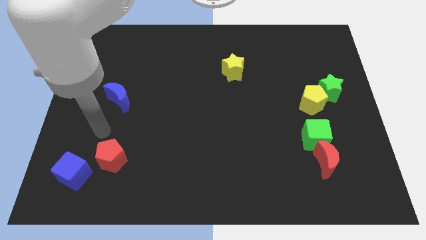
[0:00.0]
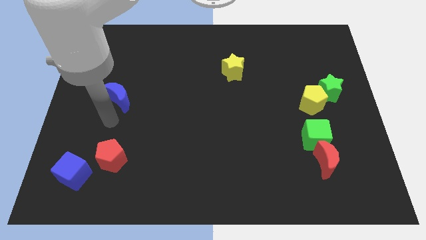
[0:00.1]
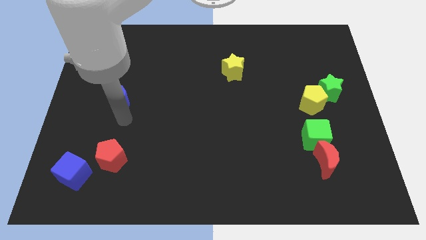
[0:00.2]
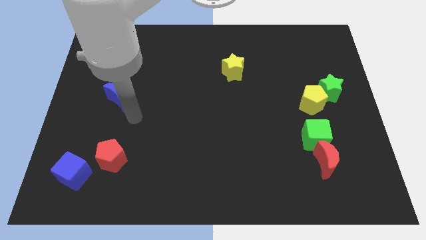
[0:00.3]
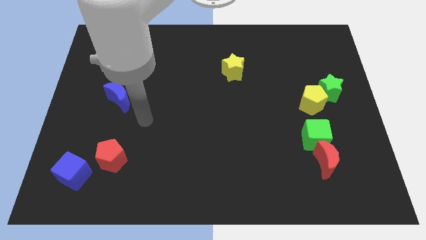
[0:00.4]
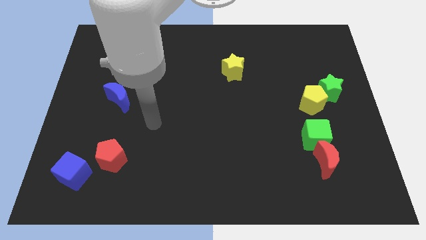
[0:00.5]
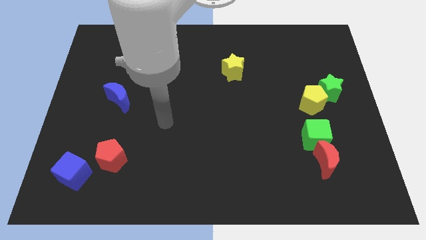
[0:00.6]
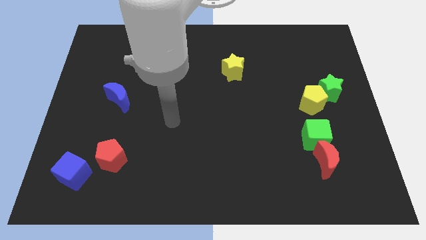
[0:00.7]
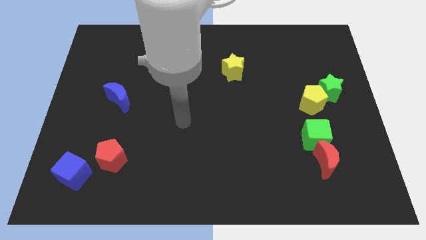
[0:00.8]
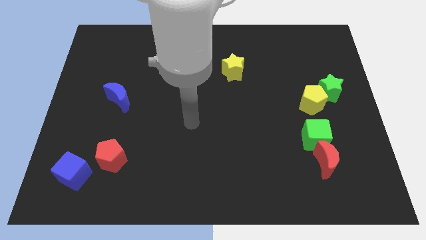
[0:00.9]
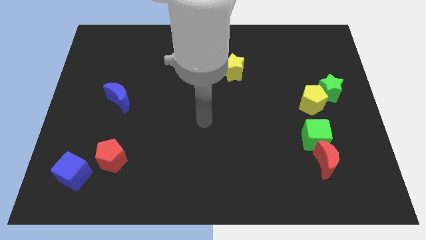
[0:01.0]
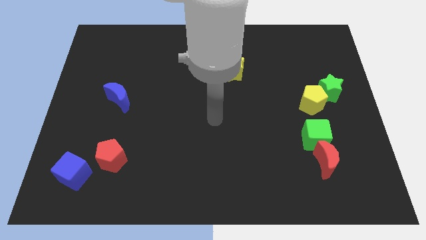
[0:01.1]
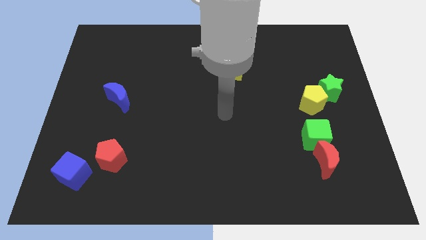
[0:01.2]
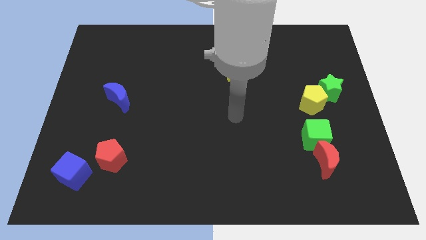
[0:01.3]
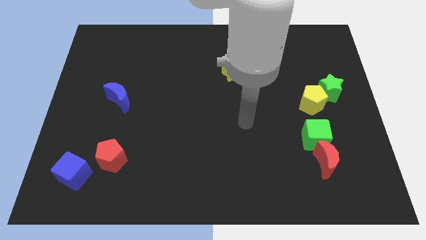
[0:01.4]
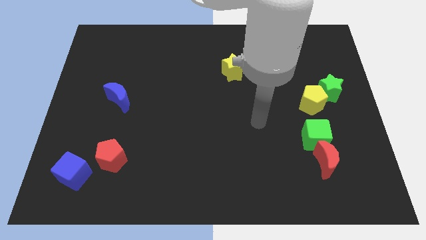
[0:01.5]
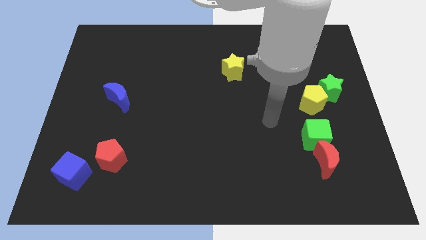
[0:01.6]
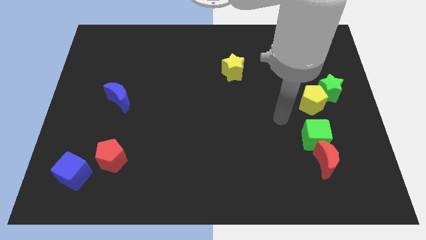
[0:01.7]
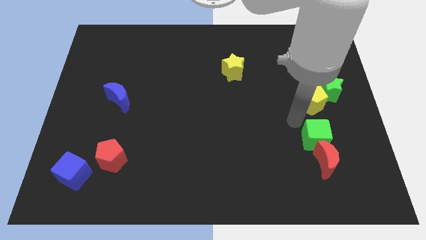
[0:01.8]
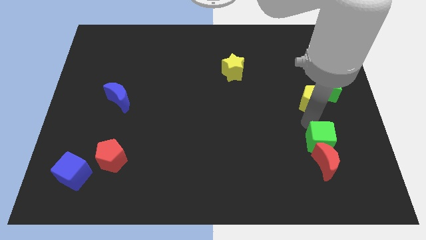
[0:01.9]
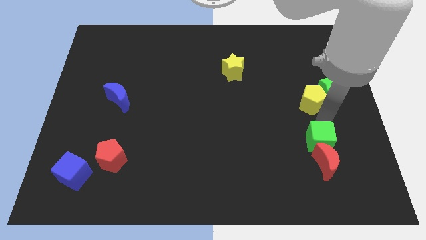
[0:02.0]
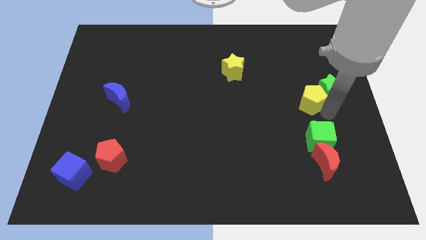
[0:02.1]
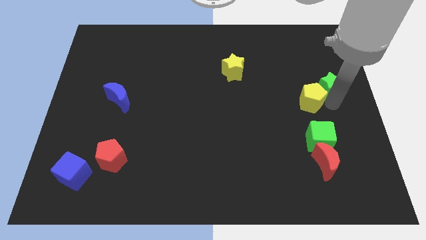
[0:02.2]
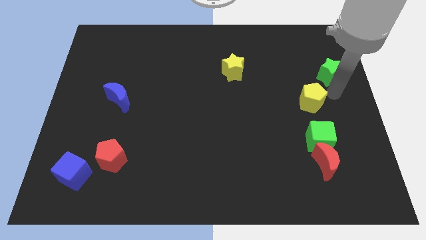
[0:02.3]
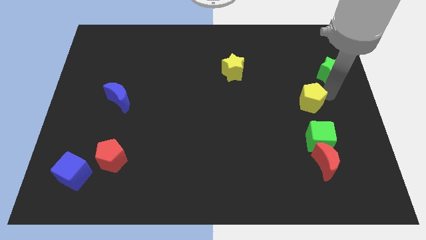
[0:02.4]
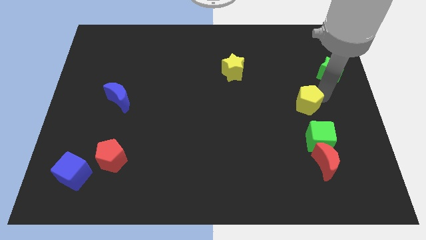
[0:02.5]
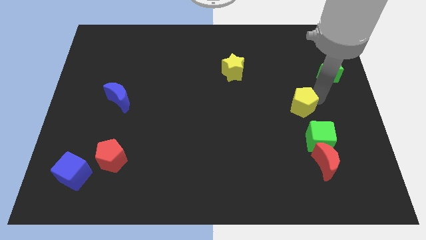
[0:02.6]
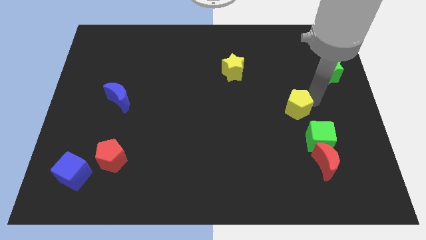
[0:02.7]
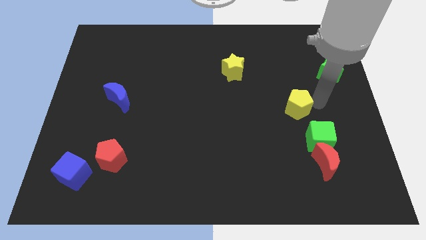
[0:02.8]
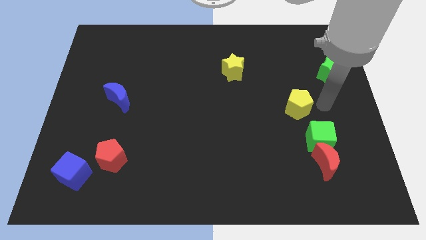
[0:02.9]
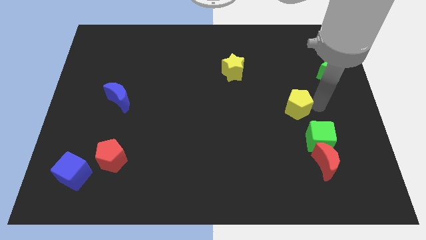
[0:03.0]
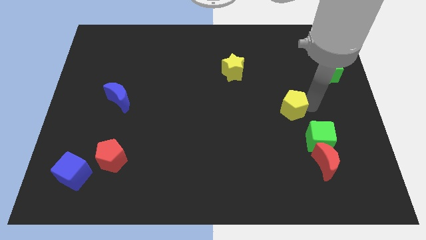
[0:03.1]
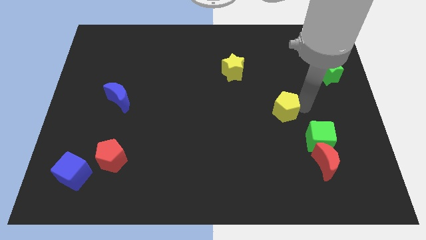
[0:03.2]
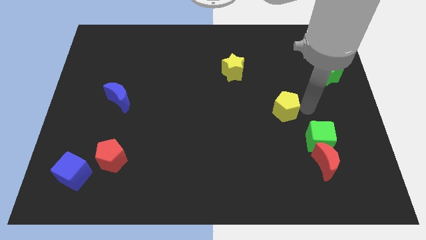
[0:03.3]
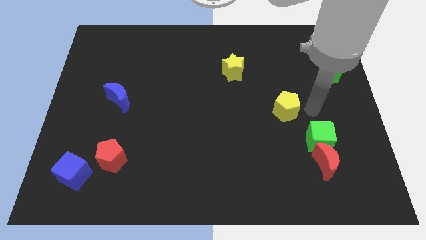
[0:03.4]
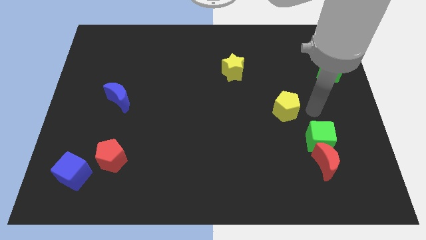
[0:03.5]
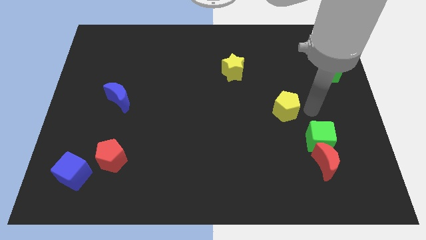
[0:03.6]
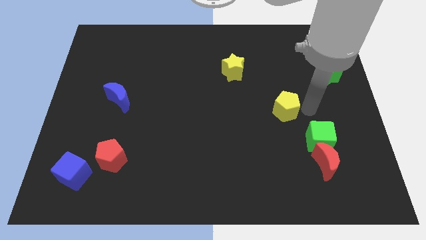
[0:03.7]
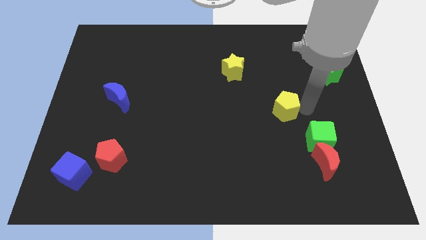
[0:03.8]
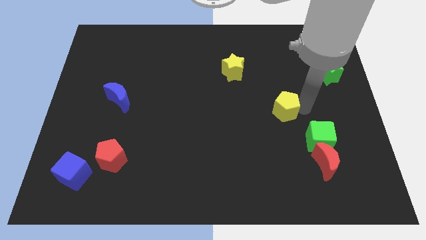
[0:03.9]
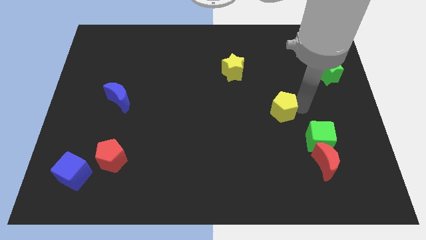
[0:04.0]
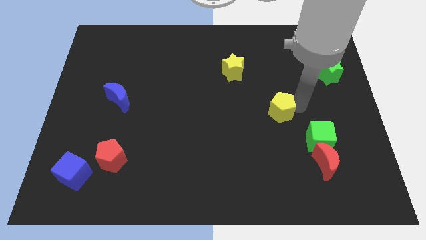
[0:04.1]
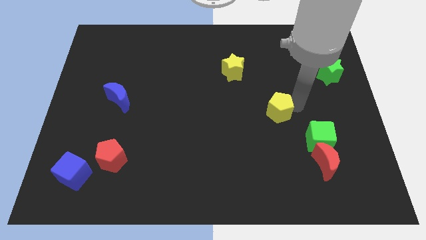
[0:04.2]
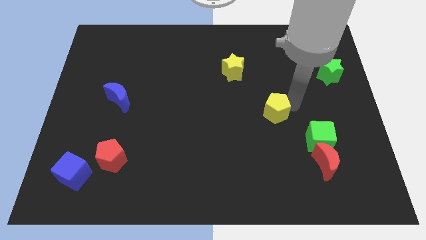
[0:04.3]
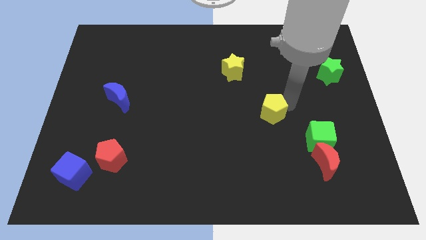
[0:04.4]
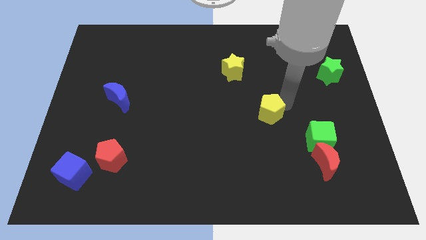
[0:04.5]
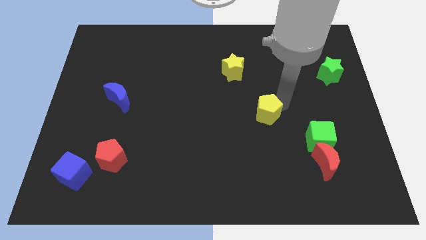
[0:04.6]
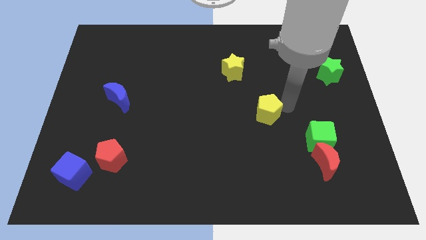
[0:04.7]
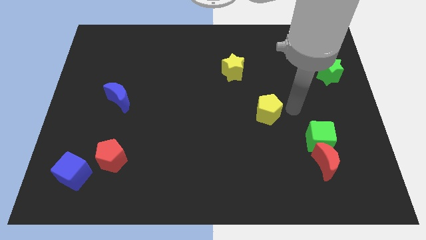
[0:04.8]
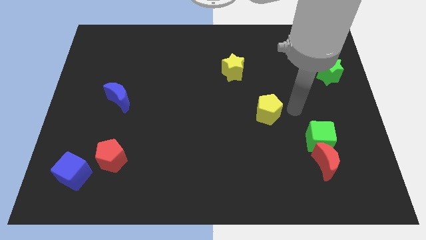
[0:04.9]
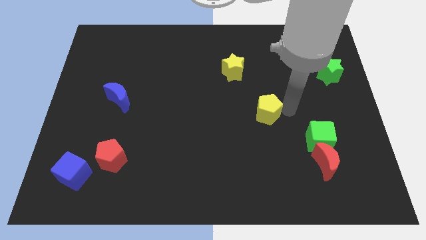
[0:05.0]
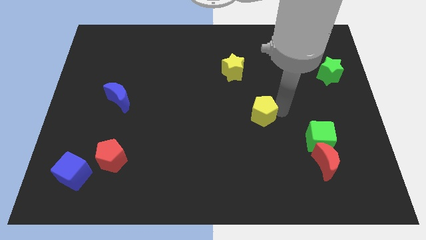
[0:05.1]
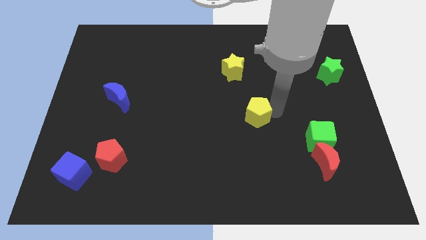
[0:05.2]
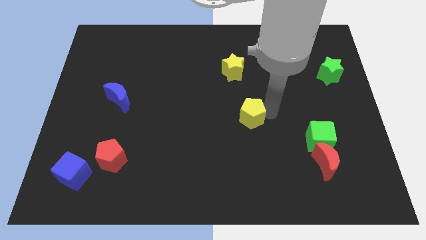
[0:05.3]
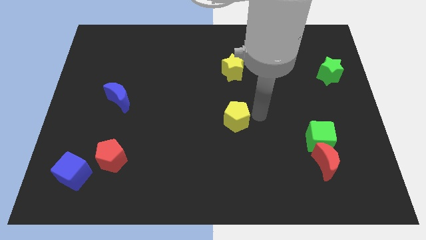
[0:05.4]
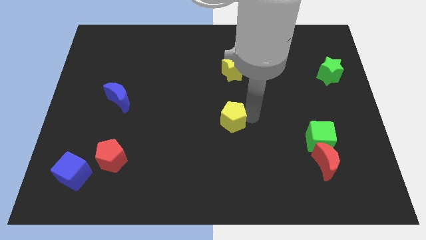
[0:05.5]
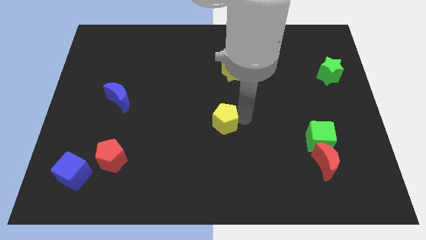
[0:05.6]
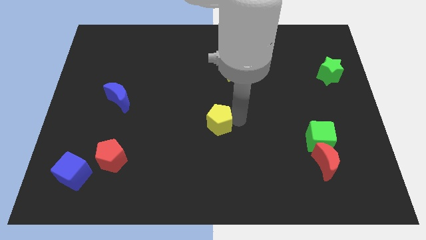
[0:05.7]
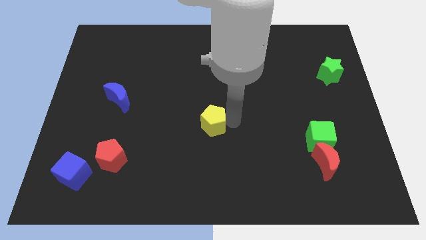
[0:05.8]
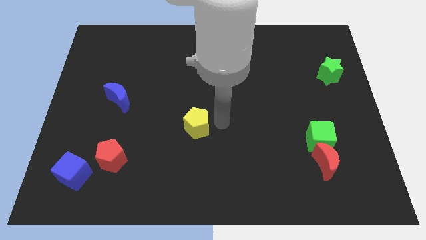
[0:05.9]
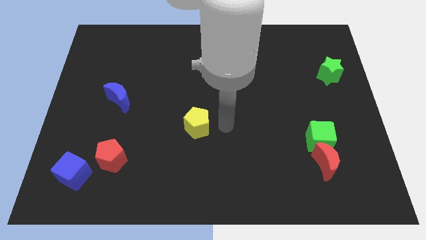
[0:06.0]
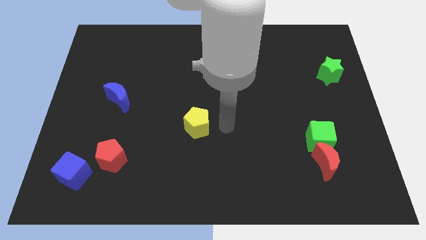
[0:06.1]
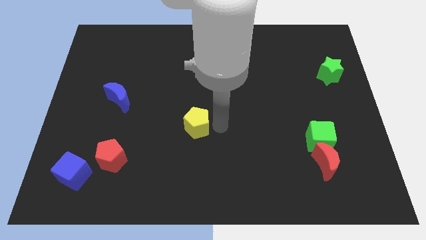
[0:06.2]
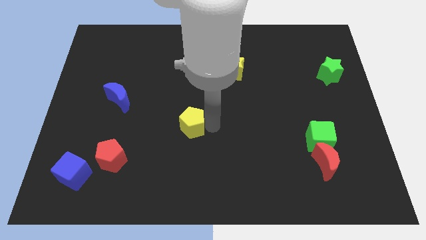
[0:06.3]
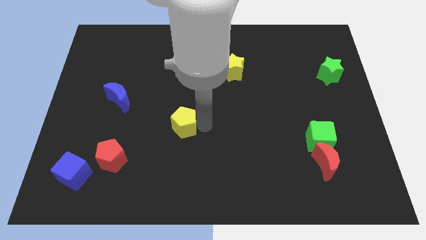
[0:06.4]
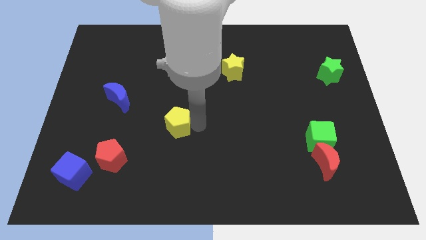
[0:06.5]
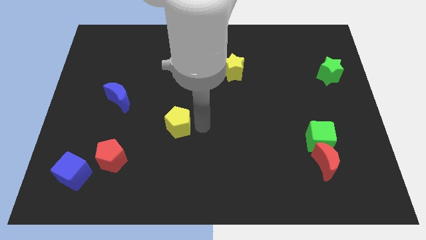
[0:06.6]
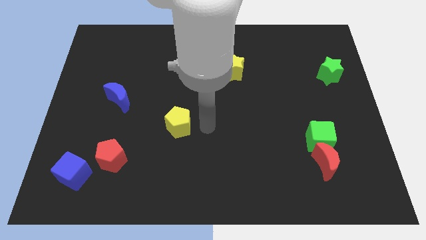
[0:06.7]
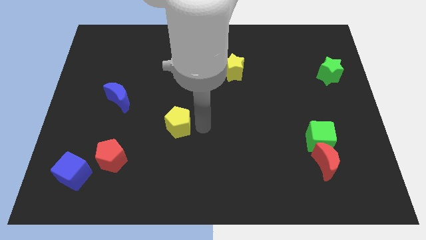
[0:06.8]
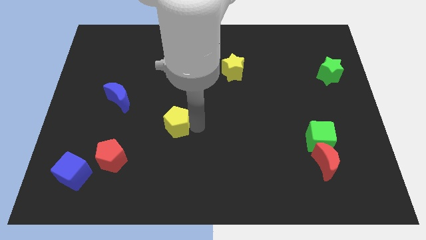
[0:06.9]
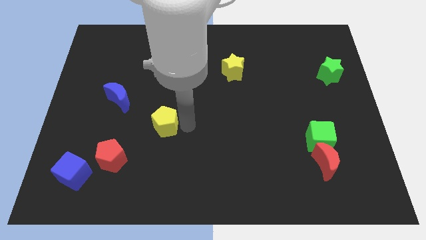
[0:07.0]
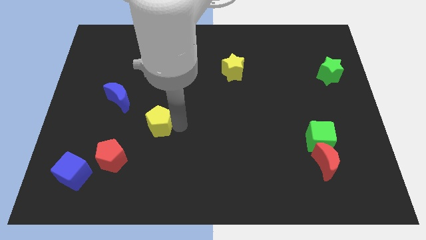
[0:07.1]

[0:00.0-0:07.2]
push the yellow pentagon to the bottom right side of the blue moon
